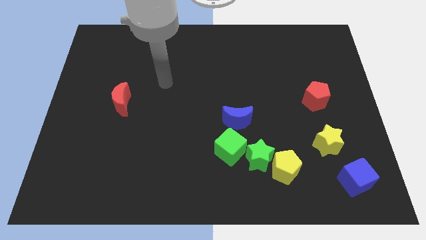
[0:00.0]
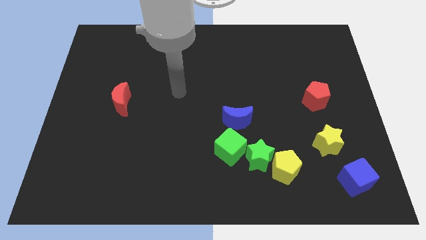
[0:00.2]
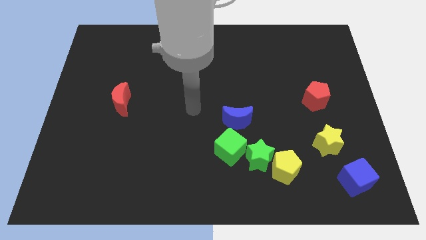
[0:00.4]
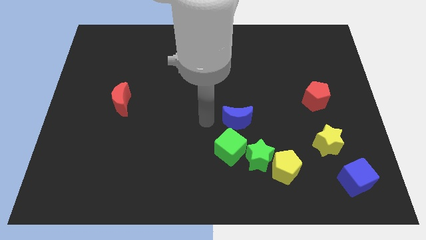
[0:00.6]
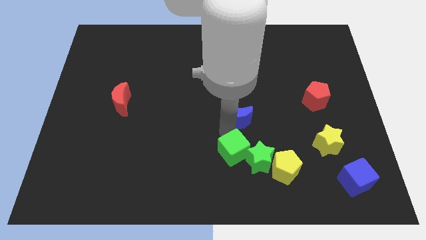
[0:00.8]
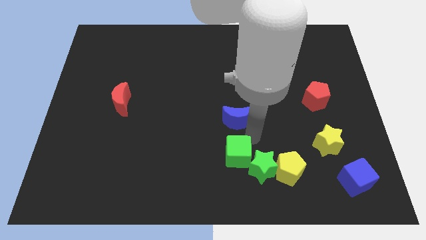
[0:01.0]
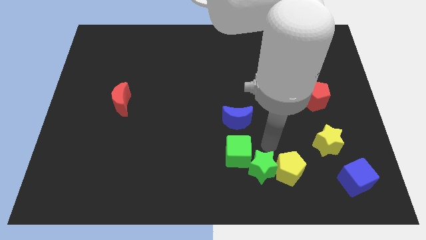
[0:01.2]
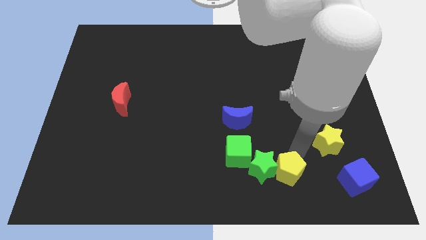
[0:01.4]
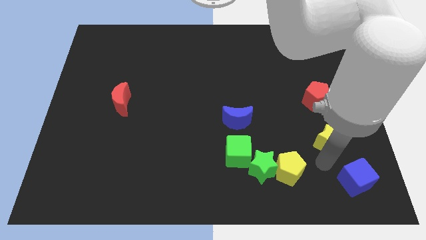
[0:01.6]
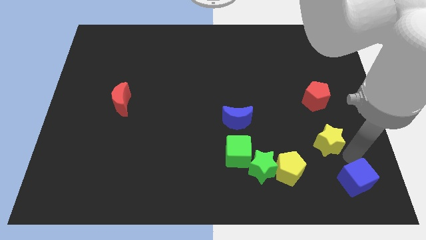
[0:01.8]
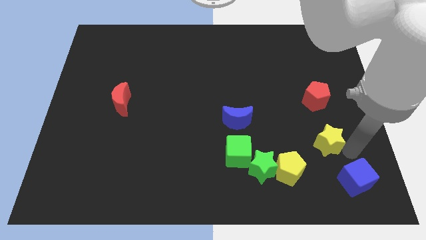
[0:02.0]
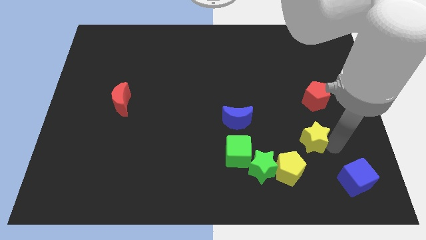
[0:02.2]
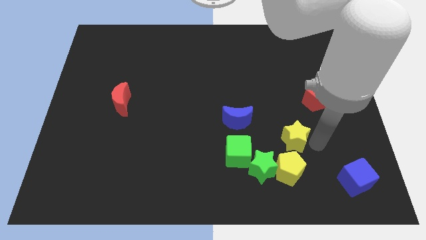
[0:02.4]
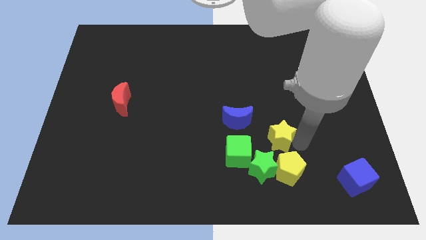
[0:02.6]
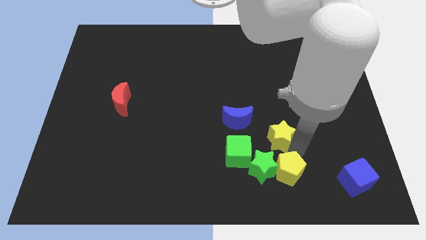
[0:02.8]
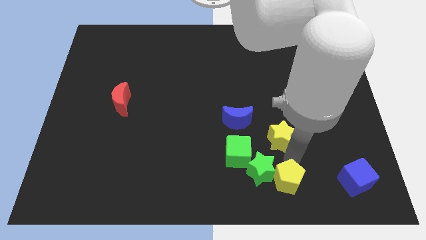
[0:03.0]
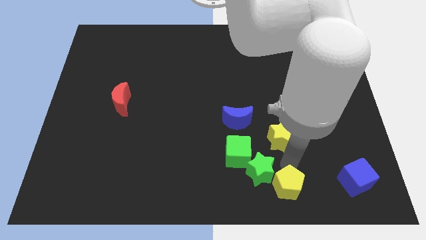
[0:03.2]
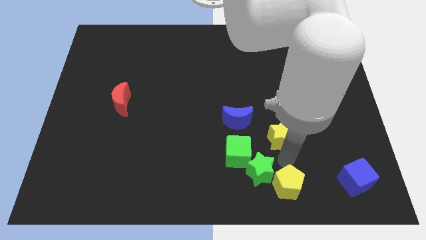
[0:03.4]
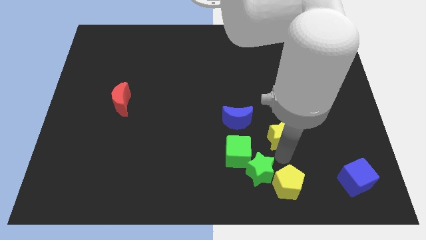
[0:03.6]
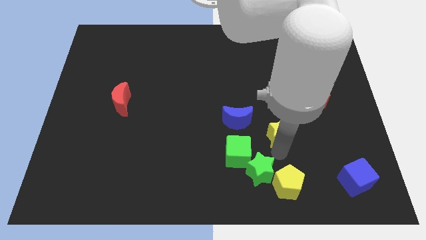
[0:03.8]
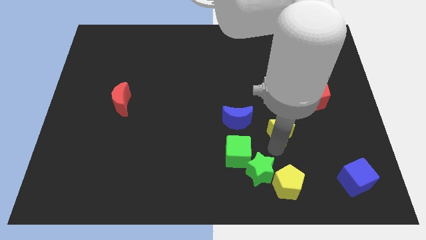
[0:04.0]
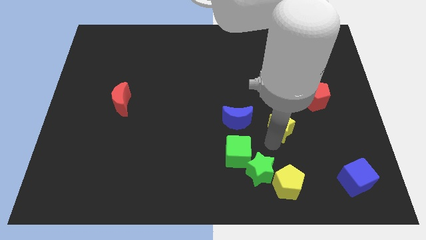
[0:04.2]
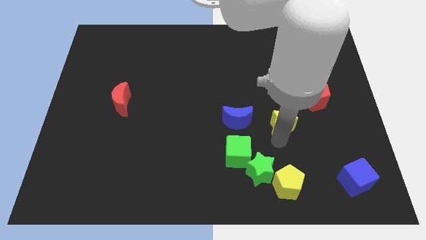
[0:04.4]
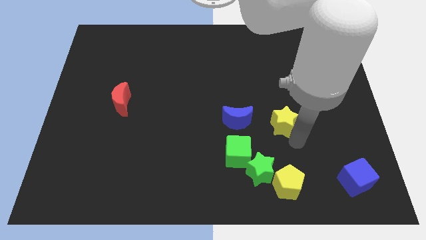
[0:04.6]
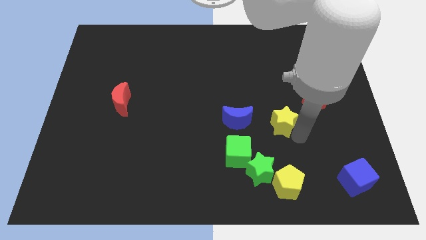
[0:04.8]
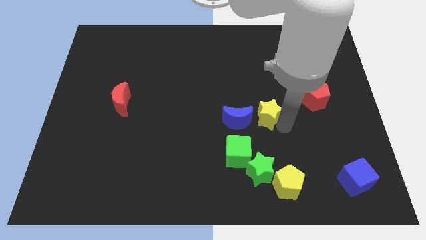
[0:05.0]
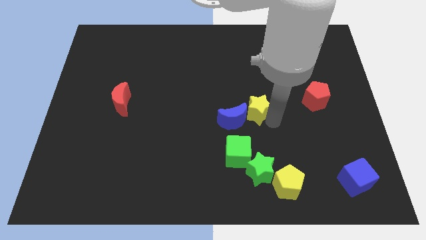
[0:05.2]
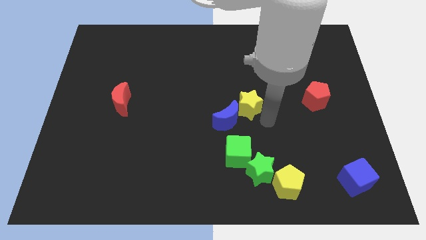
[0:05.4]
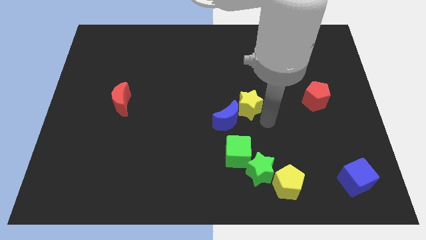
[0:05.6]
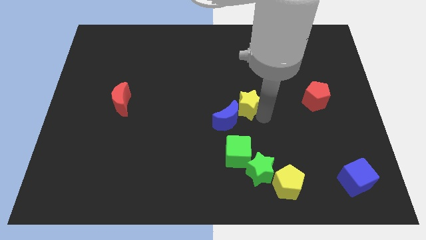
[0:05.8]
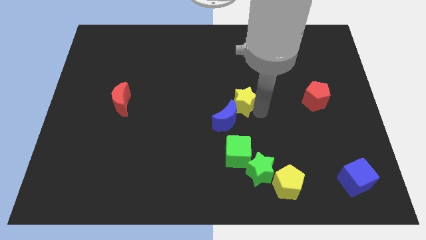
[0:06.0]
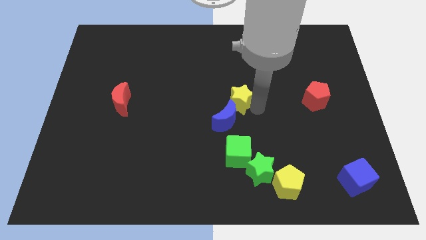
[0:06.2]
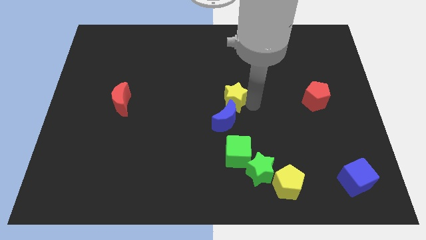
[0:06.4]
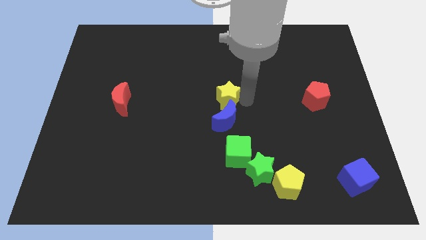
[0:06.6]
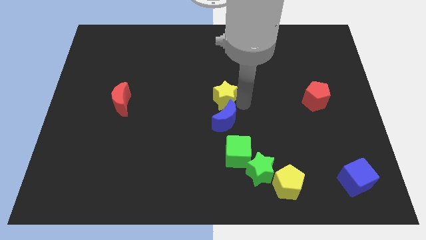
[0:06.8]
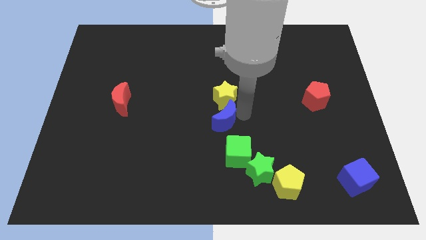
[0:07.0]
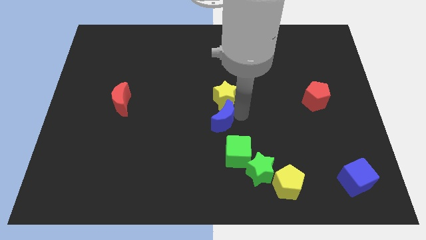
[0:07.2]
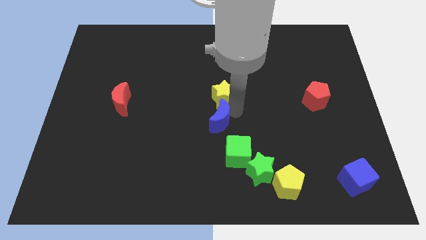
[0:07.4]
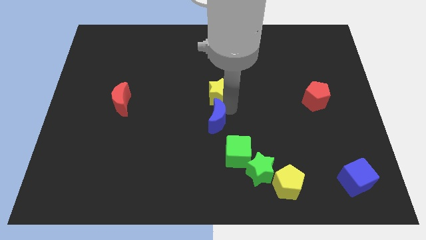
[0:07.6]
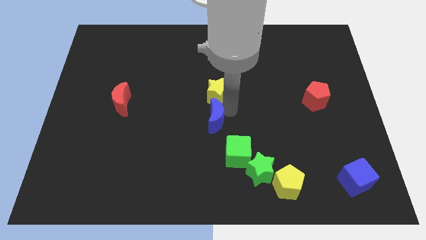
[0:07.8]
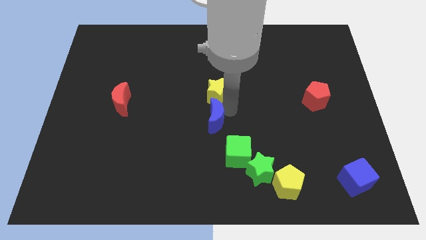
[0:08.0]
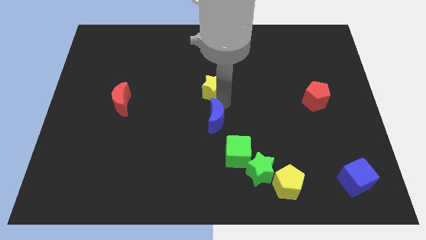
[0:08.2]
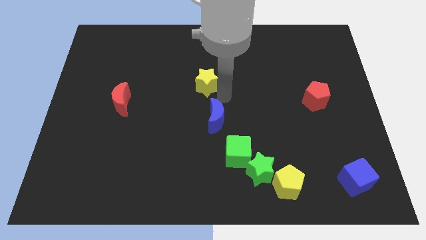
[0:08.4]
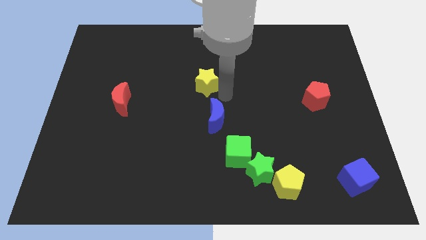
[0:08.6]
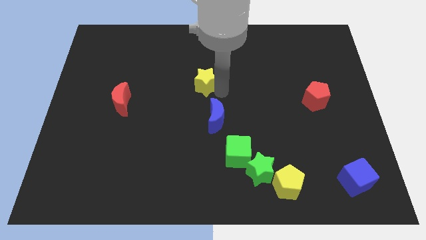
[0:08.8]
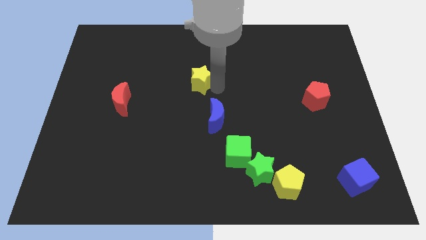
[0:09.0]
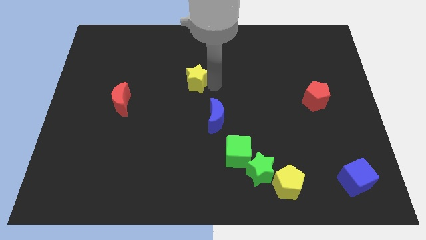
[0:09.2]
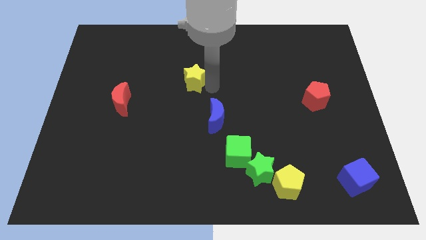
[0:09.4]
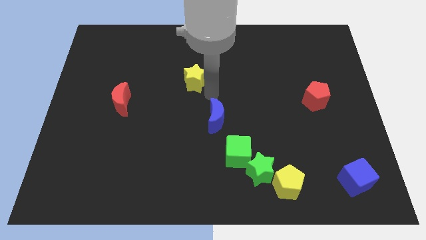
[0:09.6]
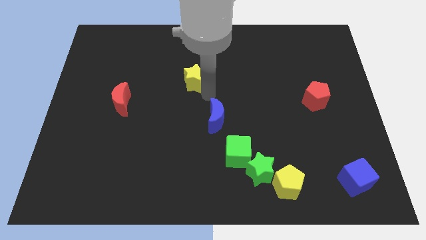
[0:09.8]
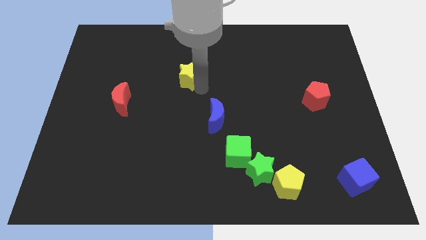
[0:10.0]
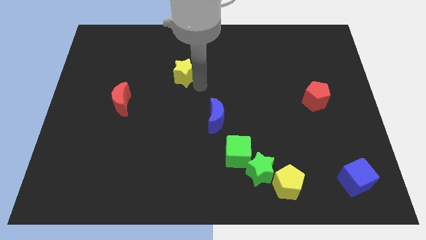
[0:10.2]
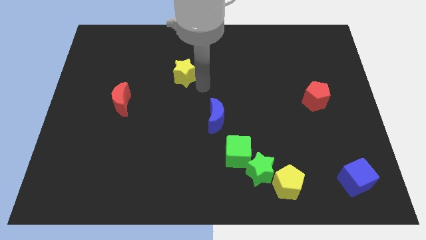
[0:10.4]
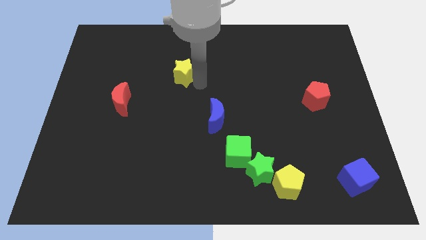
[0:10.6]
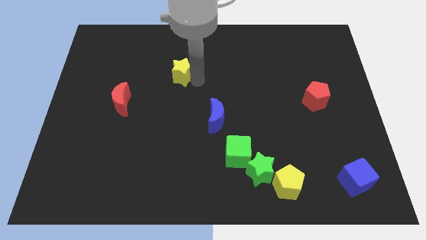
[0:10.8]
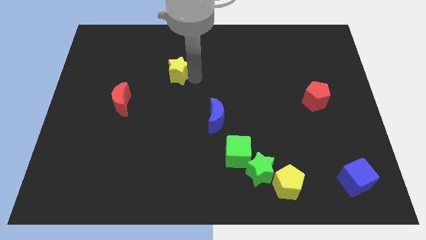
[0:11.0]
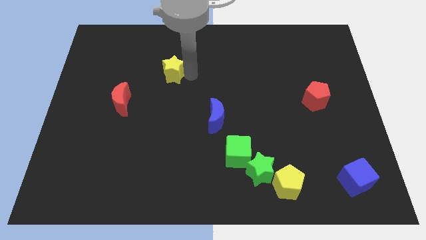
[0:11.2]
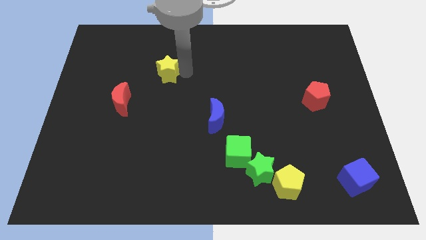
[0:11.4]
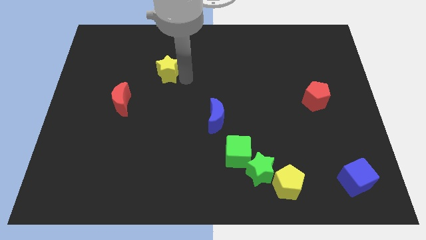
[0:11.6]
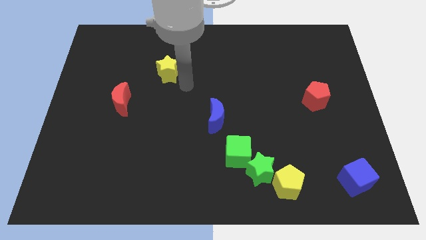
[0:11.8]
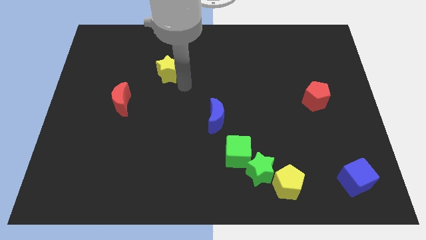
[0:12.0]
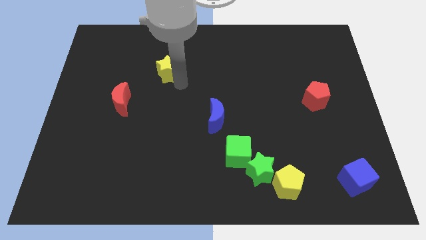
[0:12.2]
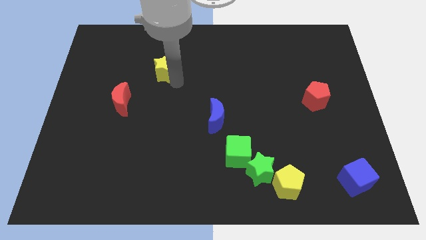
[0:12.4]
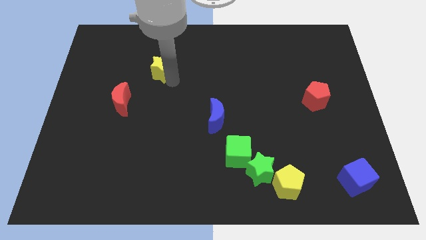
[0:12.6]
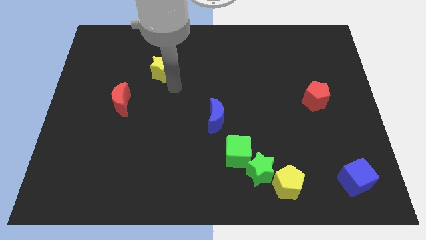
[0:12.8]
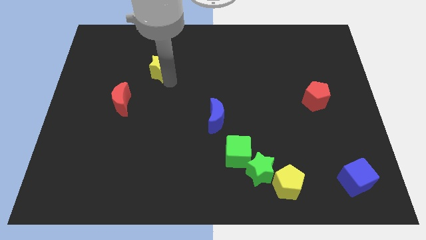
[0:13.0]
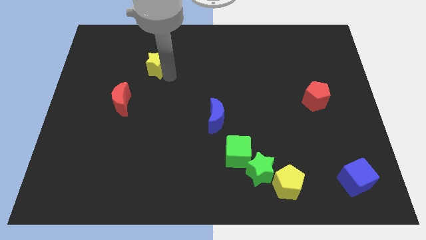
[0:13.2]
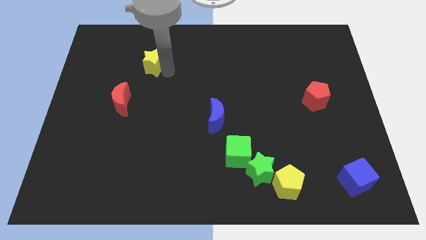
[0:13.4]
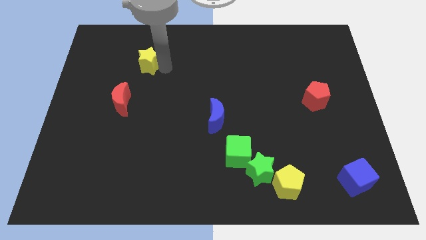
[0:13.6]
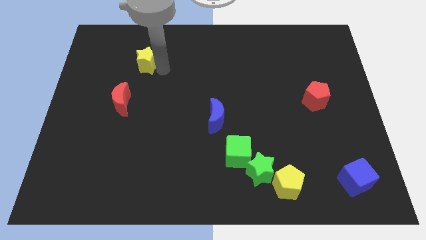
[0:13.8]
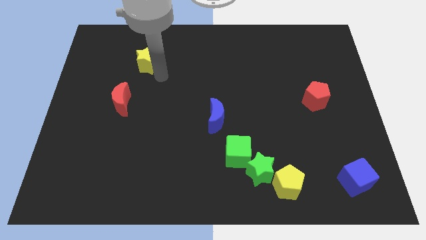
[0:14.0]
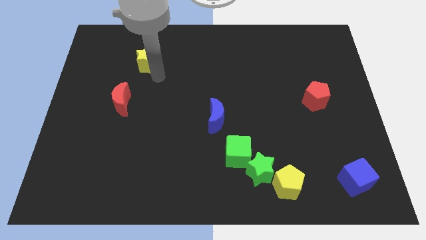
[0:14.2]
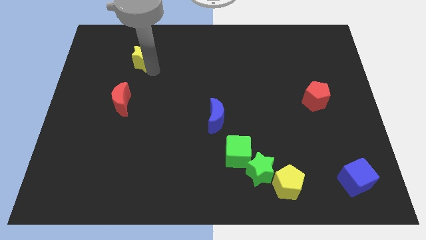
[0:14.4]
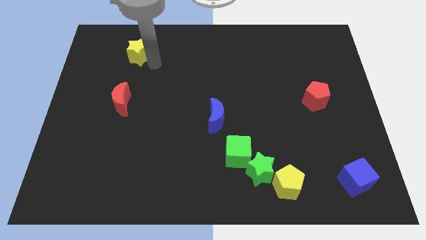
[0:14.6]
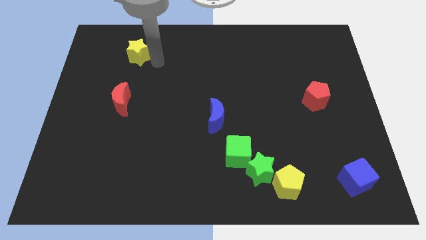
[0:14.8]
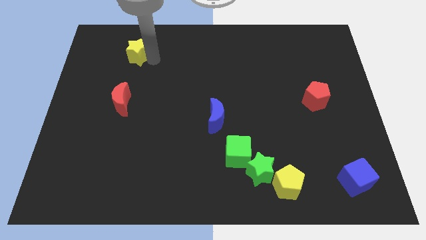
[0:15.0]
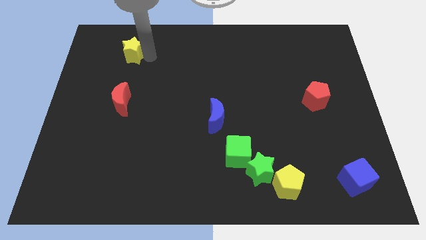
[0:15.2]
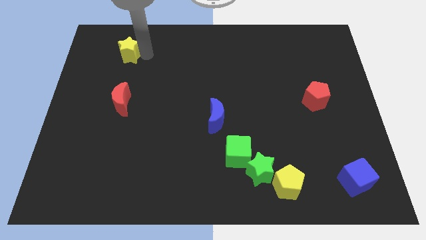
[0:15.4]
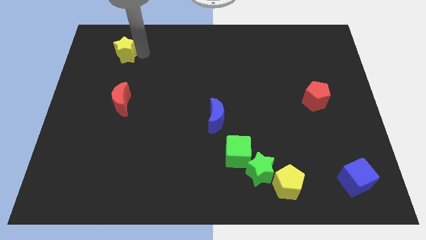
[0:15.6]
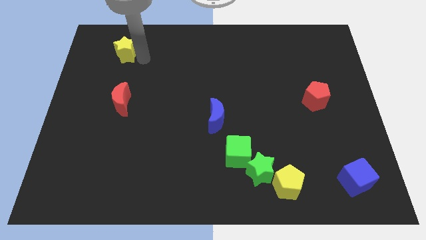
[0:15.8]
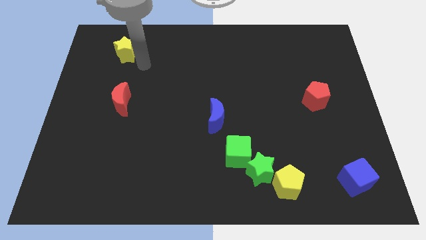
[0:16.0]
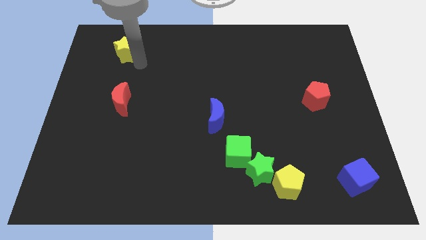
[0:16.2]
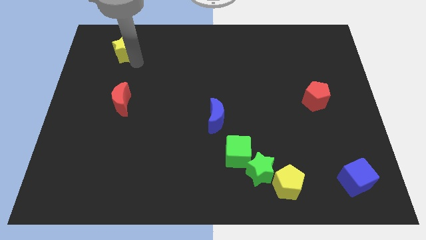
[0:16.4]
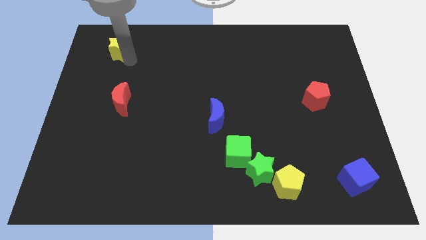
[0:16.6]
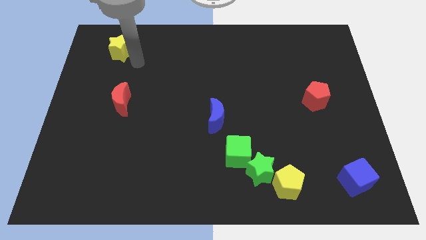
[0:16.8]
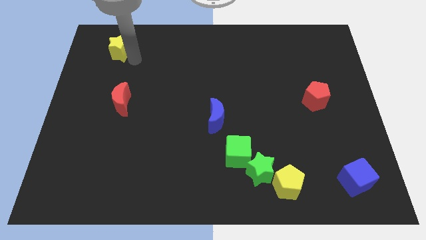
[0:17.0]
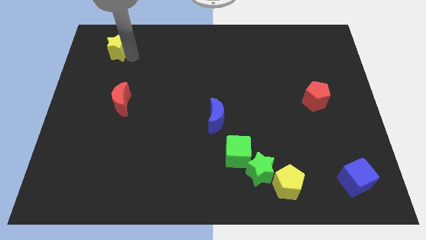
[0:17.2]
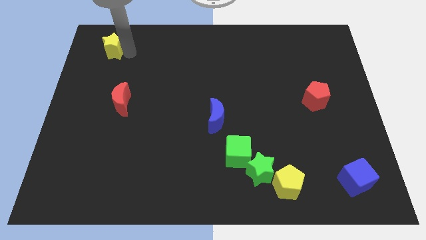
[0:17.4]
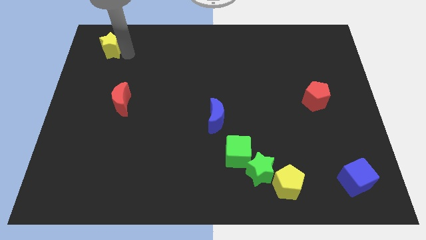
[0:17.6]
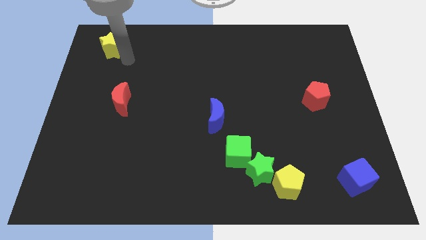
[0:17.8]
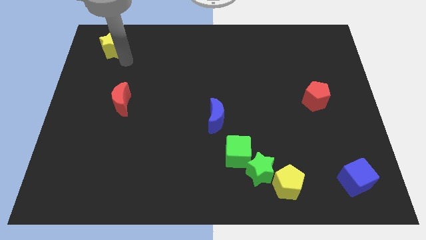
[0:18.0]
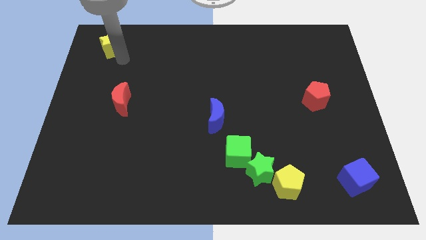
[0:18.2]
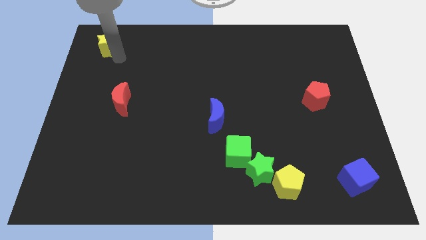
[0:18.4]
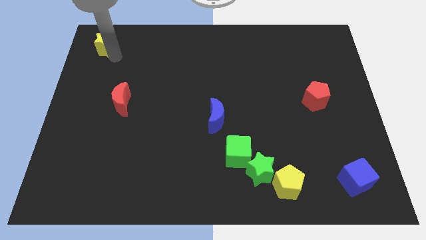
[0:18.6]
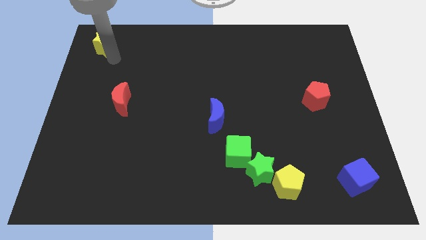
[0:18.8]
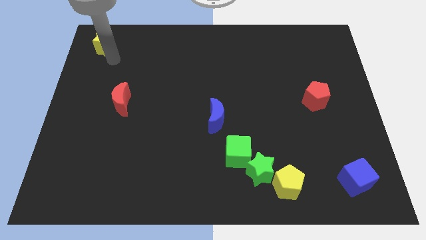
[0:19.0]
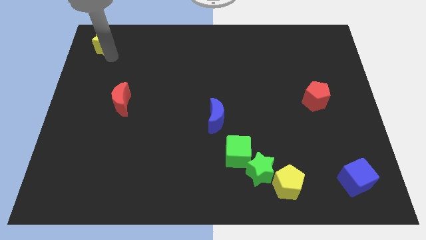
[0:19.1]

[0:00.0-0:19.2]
put the yellow star to the upper left corner
